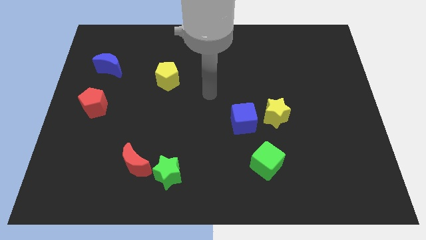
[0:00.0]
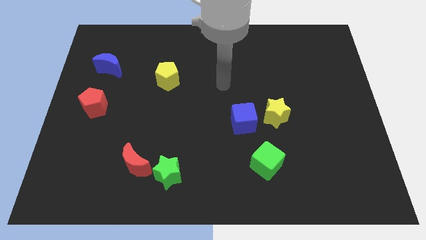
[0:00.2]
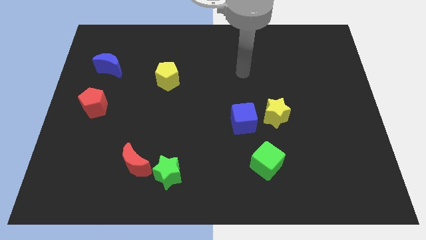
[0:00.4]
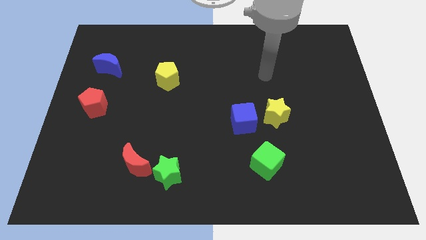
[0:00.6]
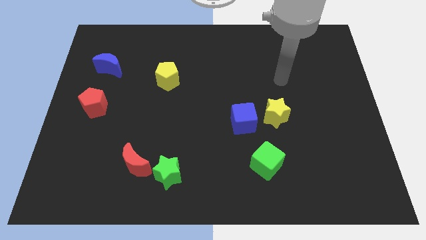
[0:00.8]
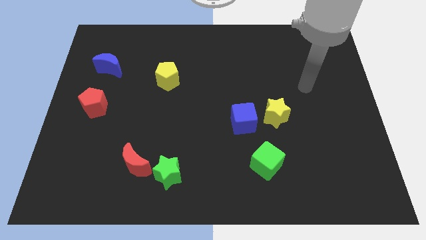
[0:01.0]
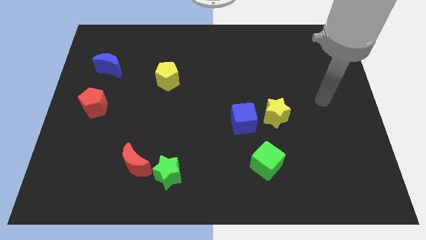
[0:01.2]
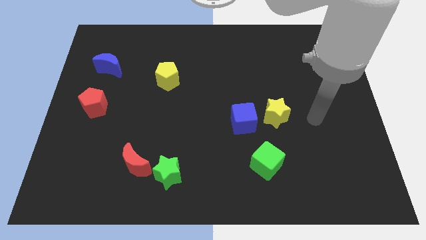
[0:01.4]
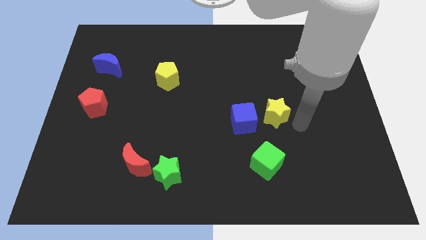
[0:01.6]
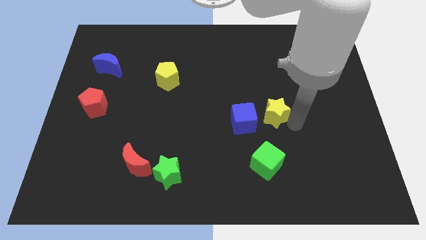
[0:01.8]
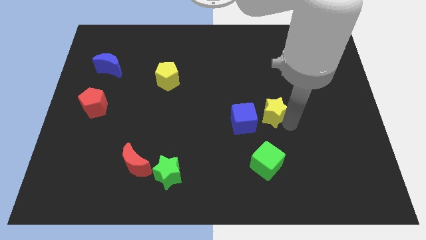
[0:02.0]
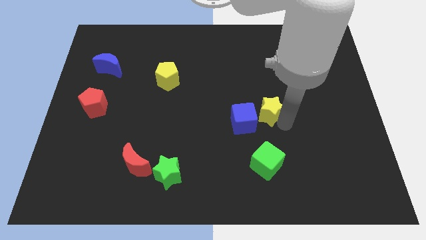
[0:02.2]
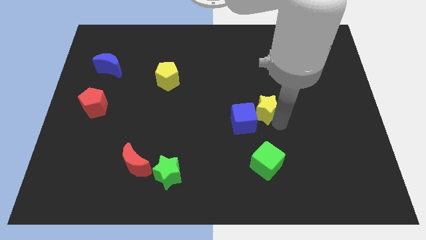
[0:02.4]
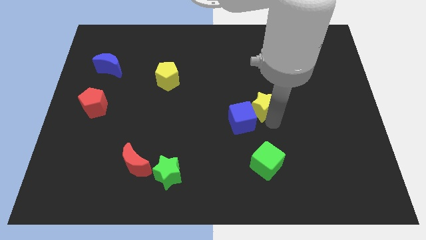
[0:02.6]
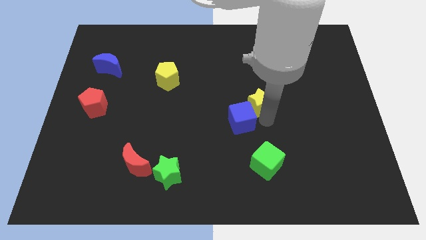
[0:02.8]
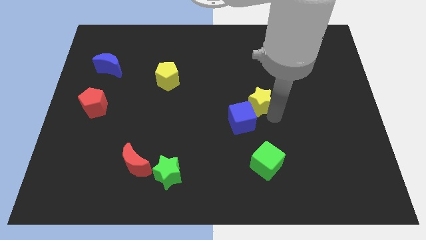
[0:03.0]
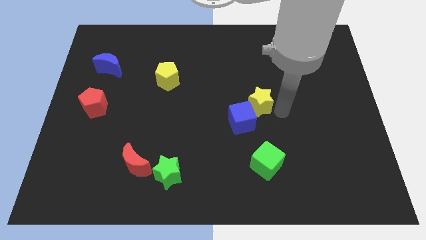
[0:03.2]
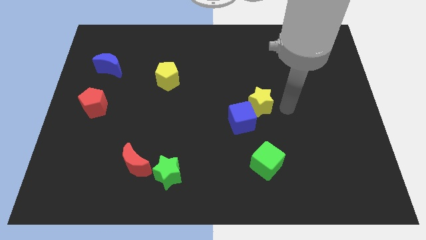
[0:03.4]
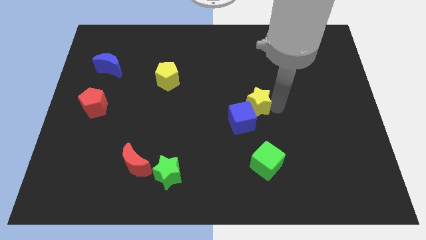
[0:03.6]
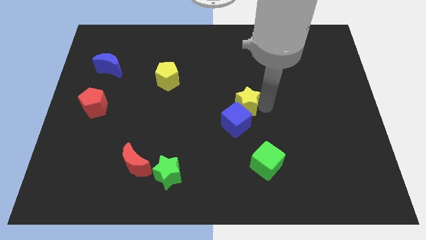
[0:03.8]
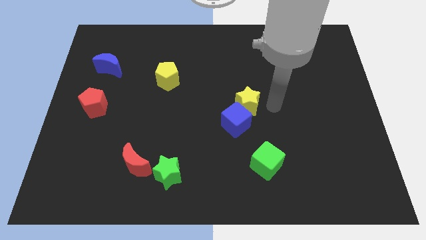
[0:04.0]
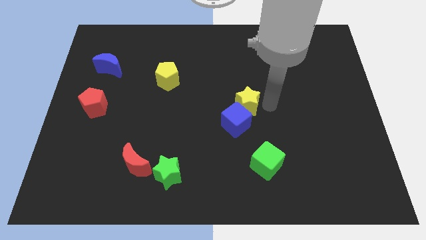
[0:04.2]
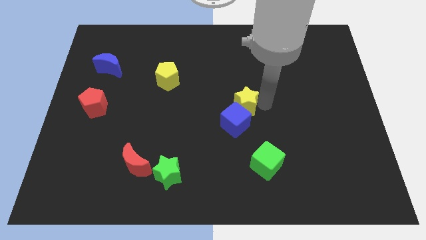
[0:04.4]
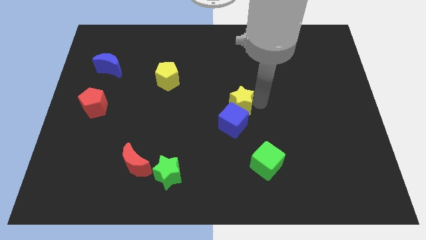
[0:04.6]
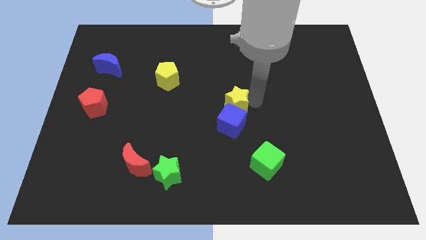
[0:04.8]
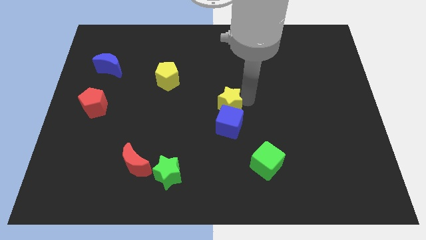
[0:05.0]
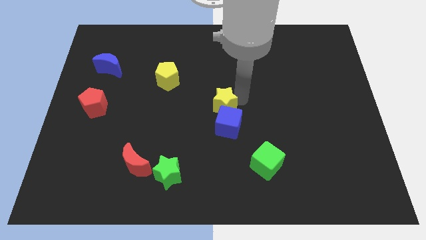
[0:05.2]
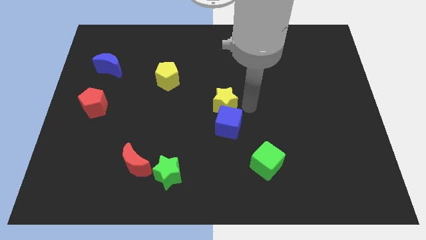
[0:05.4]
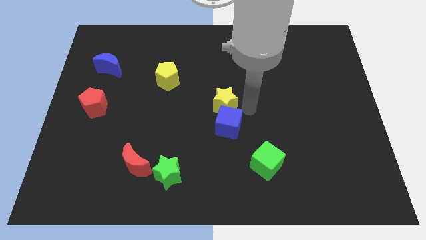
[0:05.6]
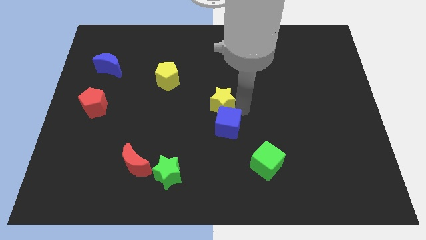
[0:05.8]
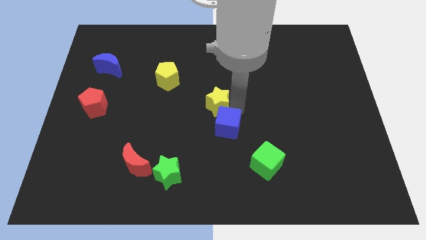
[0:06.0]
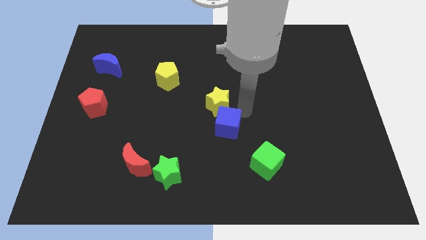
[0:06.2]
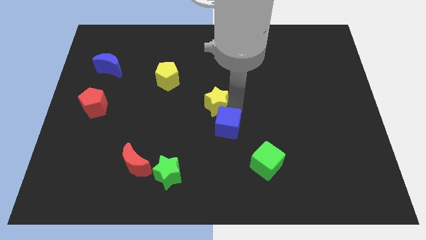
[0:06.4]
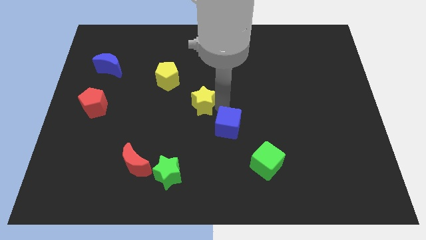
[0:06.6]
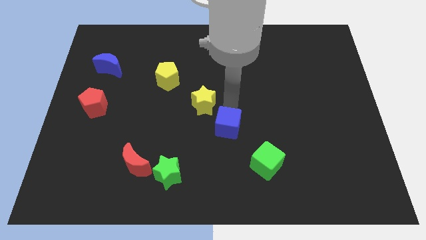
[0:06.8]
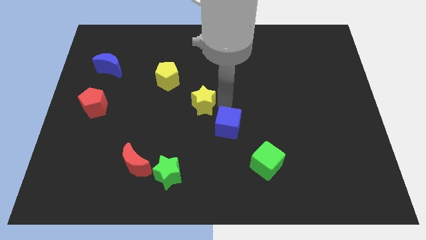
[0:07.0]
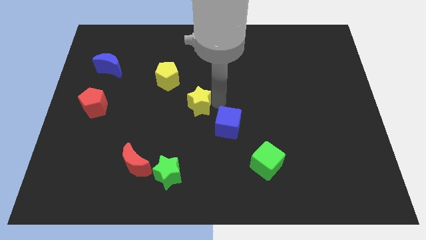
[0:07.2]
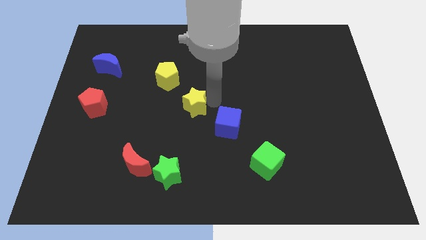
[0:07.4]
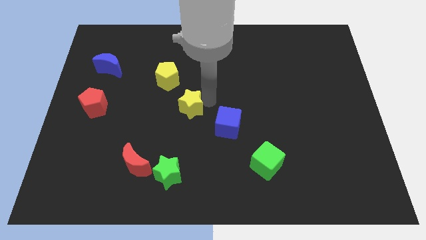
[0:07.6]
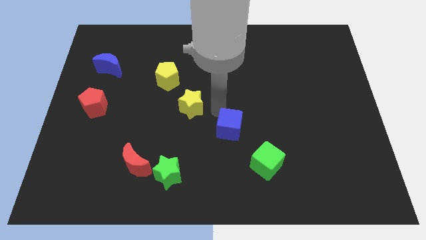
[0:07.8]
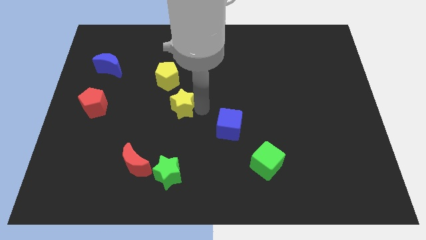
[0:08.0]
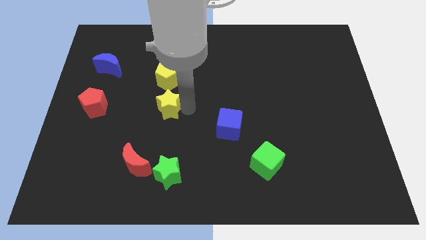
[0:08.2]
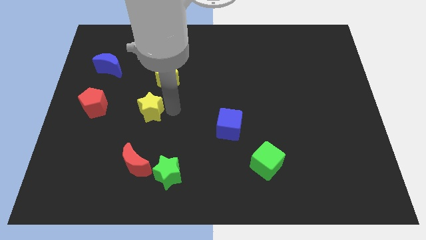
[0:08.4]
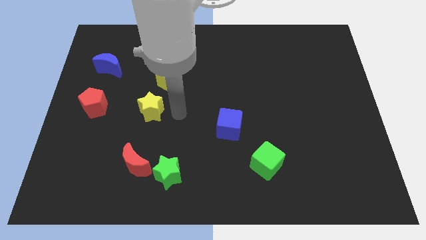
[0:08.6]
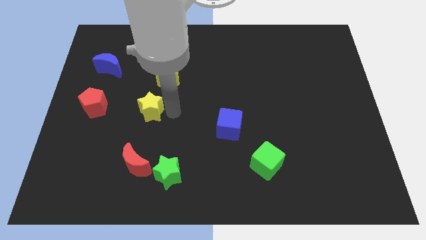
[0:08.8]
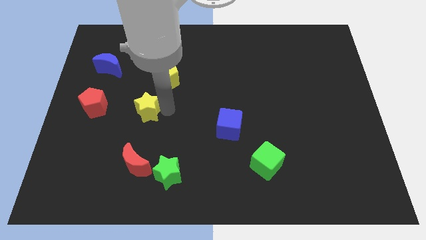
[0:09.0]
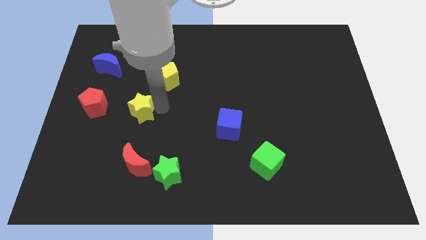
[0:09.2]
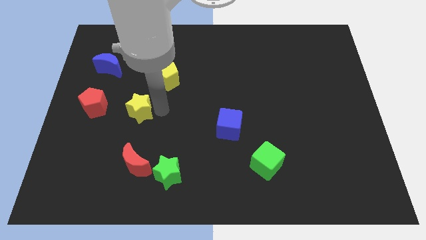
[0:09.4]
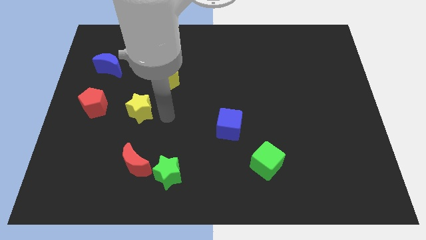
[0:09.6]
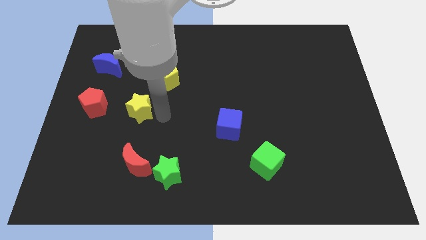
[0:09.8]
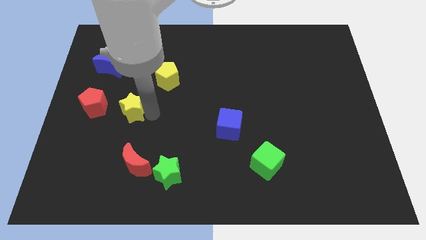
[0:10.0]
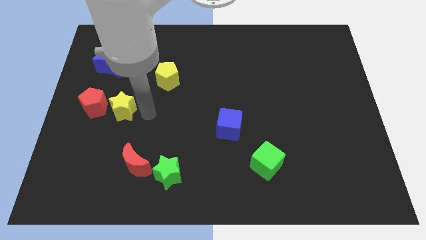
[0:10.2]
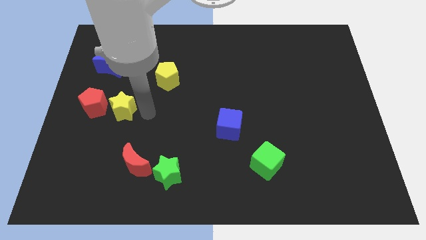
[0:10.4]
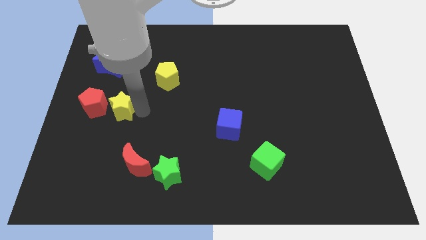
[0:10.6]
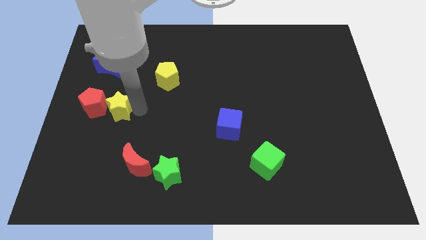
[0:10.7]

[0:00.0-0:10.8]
put the yellow star close to the red pentagon

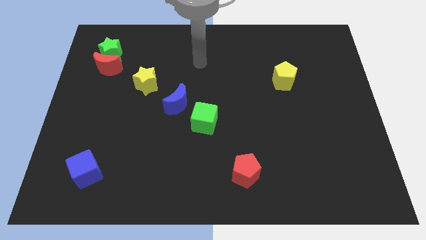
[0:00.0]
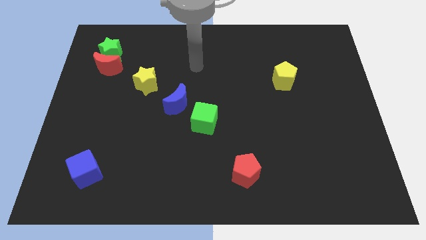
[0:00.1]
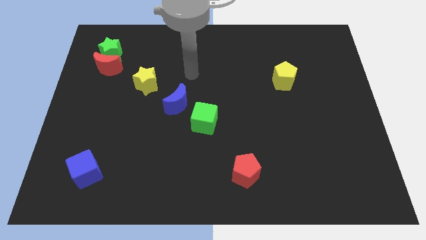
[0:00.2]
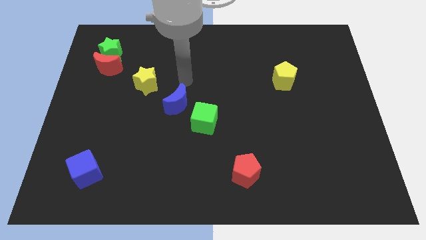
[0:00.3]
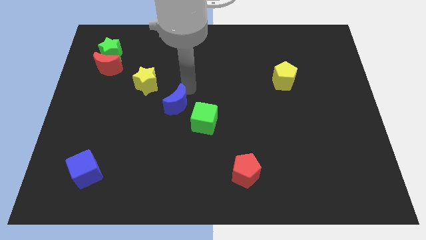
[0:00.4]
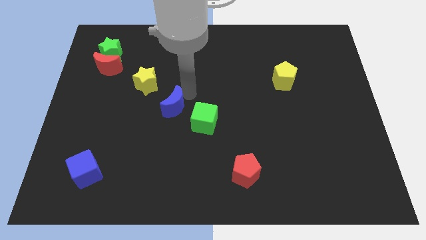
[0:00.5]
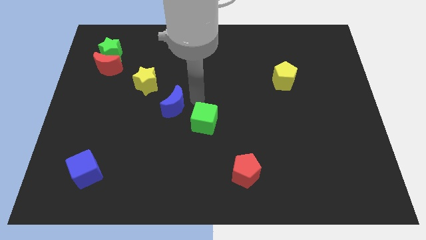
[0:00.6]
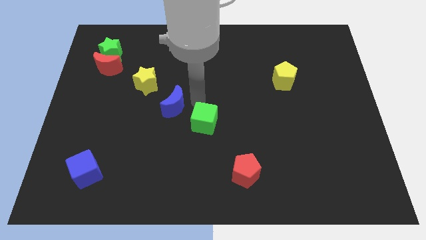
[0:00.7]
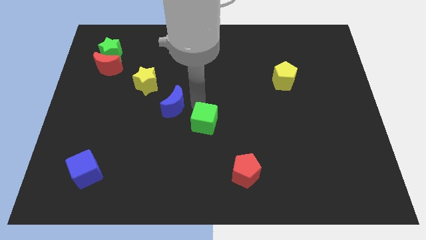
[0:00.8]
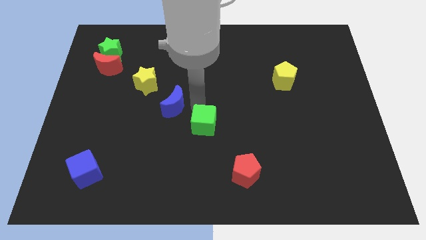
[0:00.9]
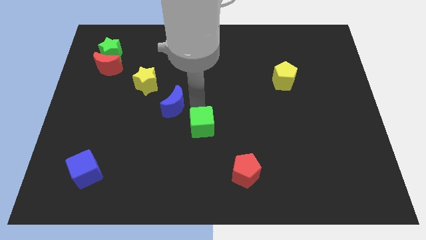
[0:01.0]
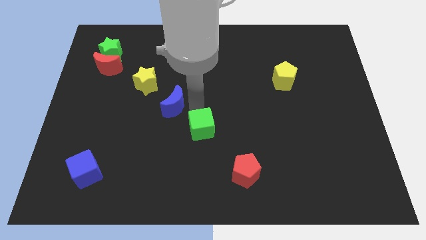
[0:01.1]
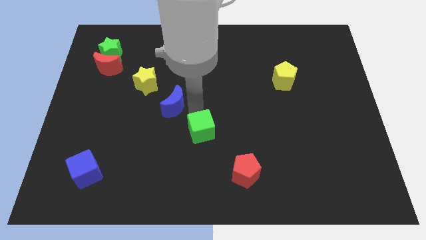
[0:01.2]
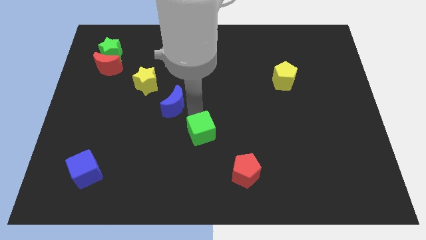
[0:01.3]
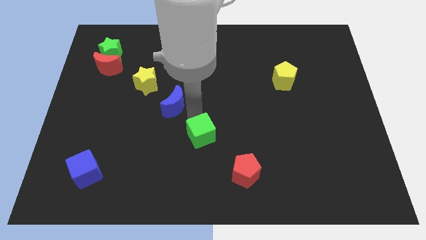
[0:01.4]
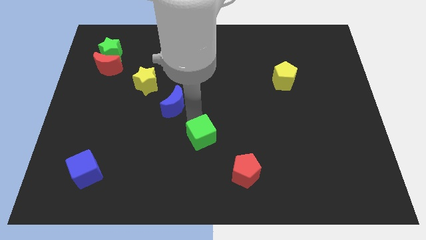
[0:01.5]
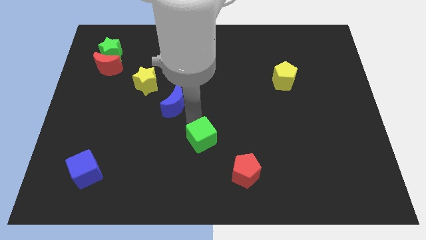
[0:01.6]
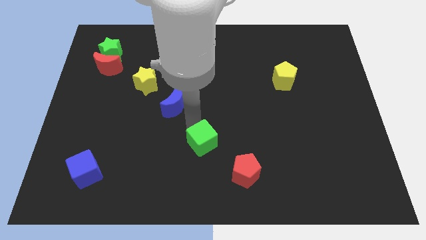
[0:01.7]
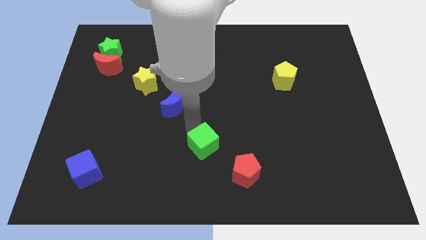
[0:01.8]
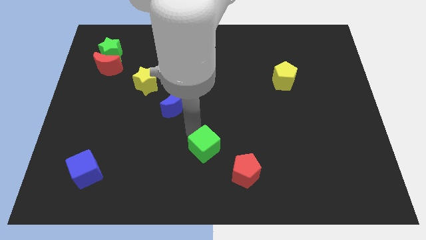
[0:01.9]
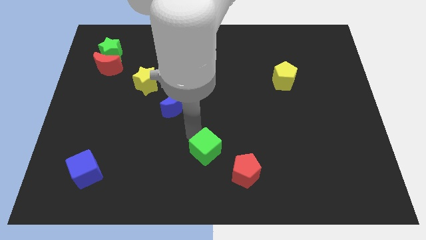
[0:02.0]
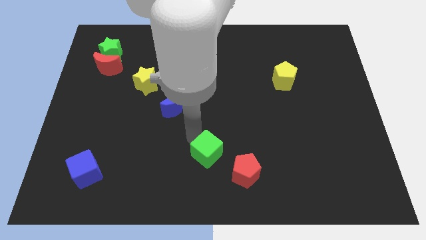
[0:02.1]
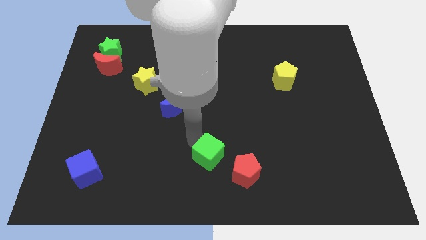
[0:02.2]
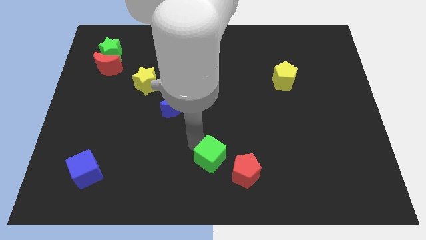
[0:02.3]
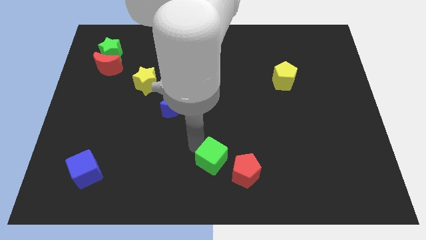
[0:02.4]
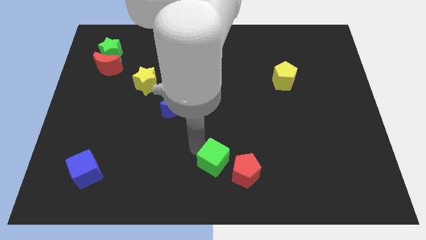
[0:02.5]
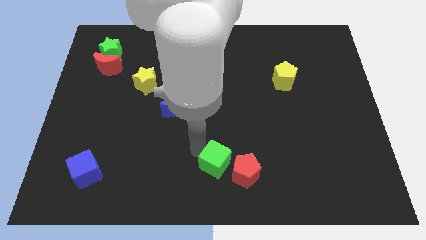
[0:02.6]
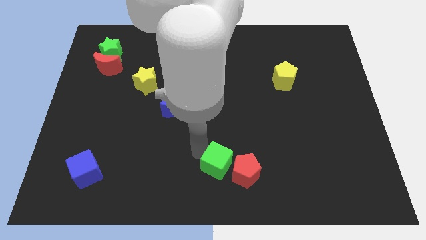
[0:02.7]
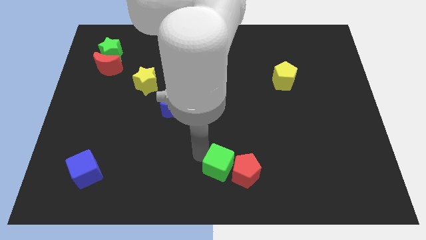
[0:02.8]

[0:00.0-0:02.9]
slide the green cube towards the red pentagon
